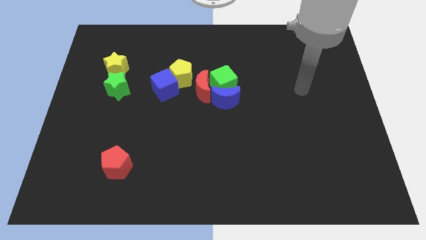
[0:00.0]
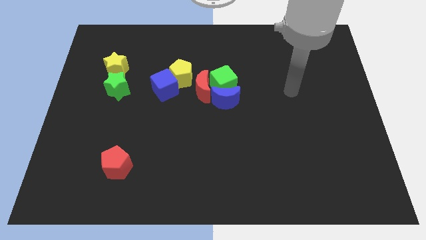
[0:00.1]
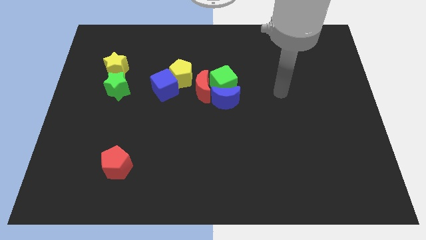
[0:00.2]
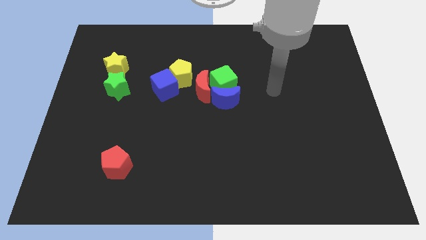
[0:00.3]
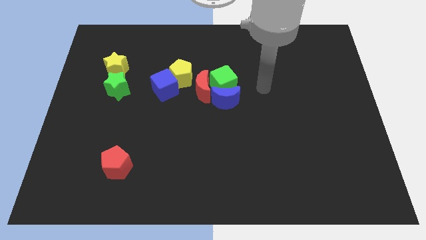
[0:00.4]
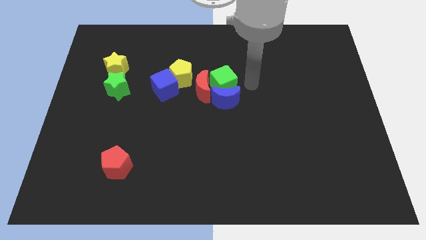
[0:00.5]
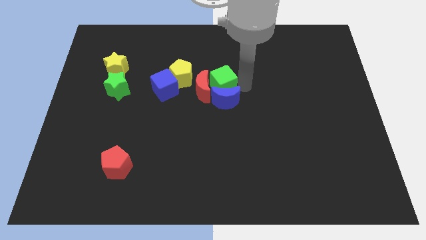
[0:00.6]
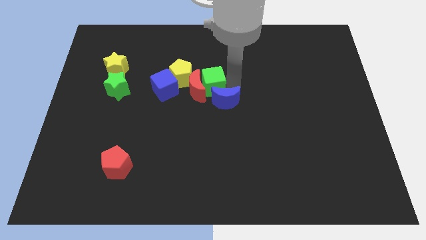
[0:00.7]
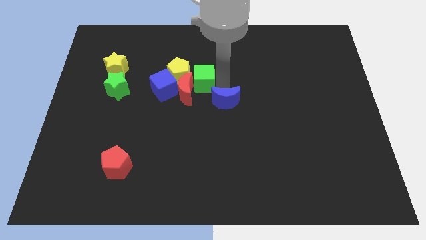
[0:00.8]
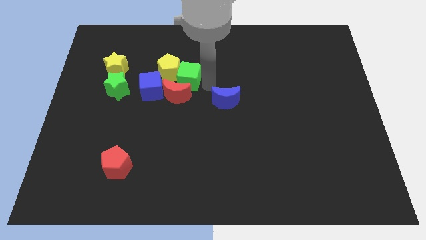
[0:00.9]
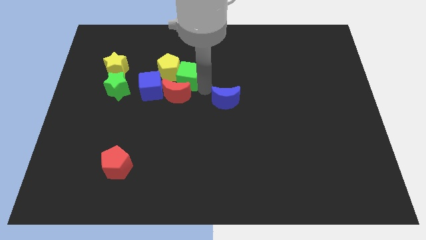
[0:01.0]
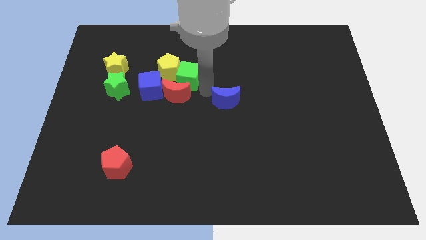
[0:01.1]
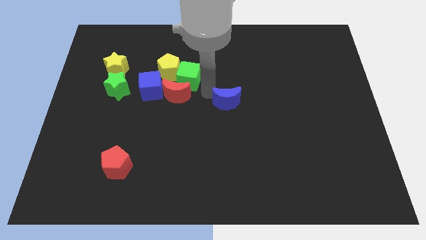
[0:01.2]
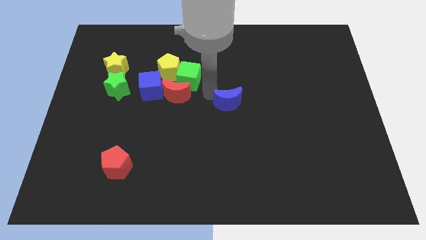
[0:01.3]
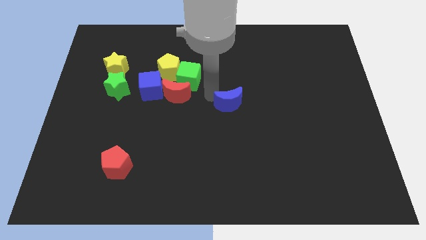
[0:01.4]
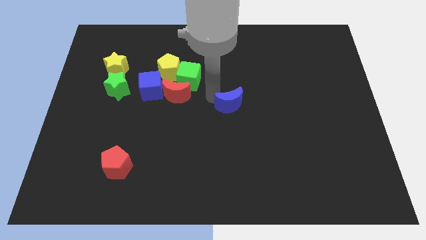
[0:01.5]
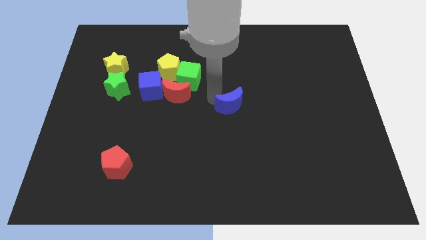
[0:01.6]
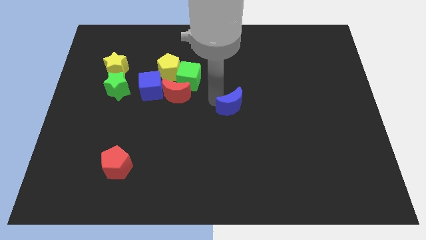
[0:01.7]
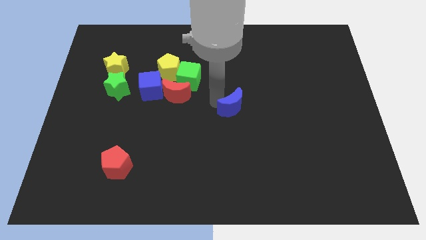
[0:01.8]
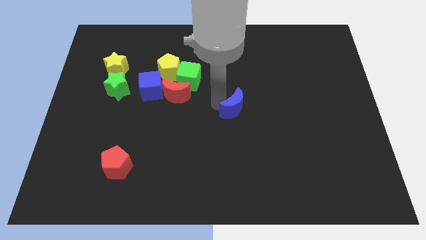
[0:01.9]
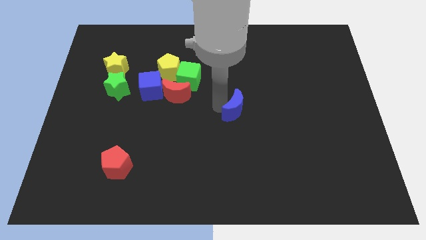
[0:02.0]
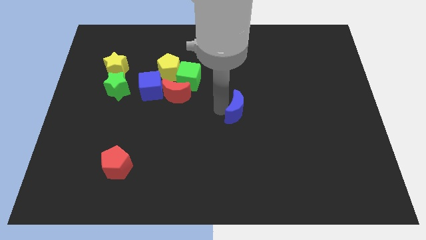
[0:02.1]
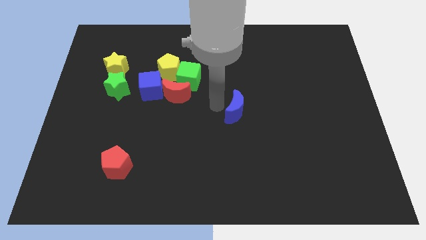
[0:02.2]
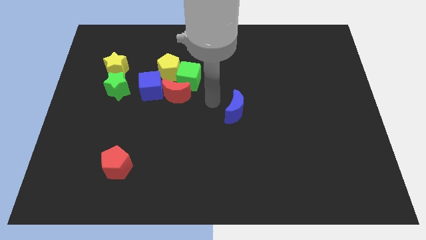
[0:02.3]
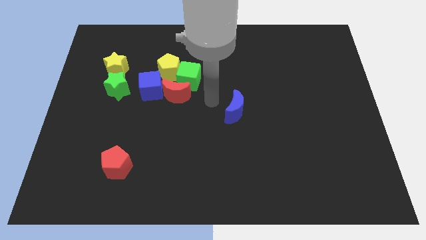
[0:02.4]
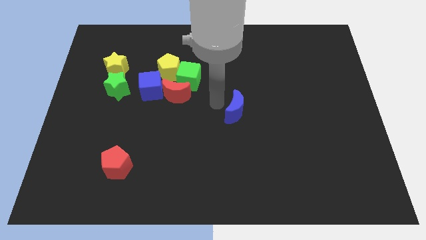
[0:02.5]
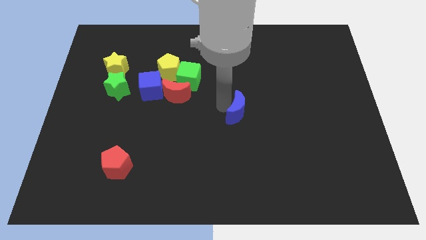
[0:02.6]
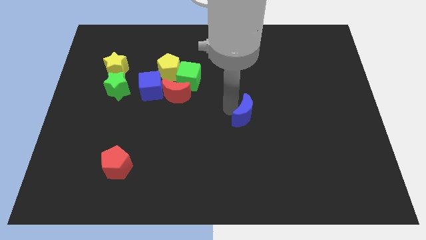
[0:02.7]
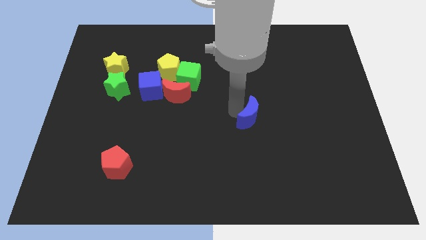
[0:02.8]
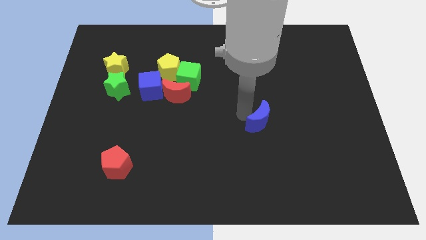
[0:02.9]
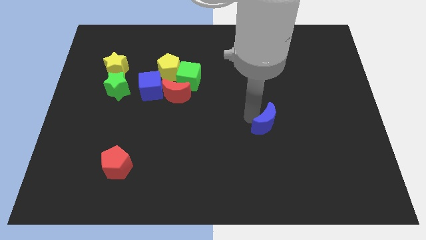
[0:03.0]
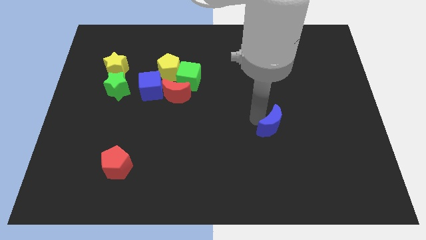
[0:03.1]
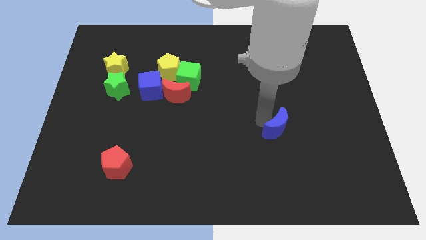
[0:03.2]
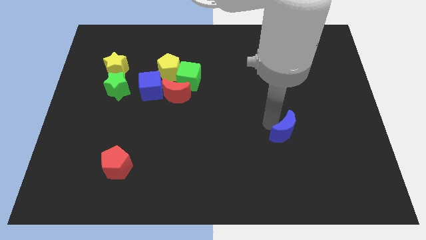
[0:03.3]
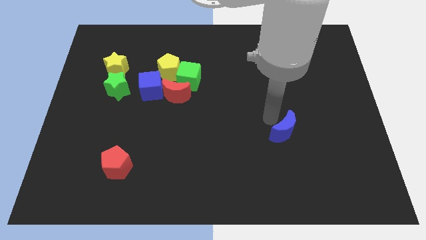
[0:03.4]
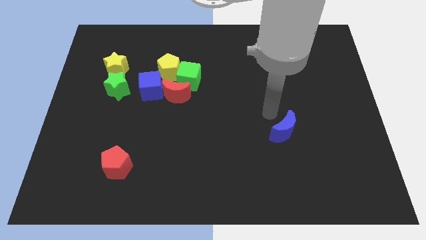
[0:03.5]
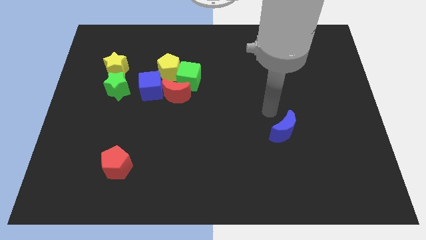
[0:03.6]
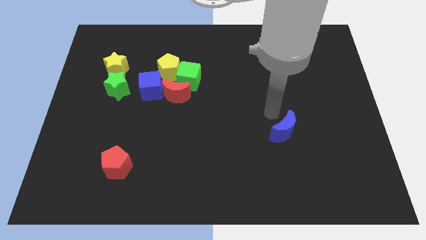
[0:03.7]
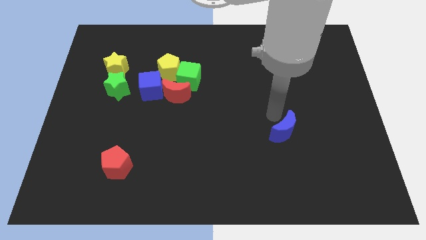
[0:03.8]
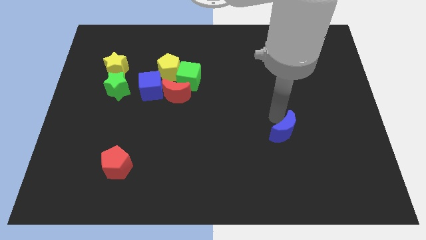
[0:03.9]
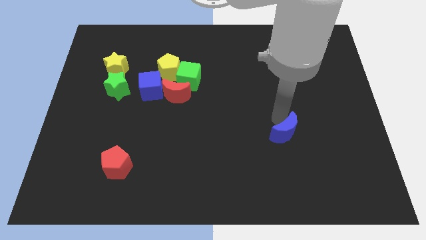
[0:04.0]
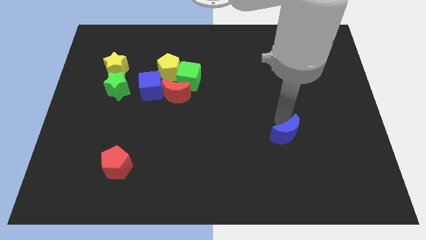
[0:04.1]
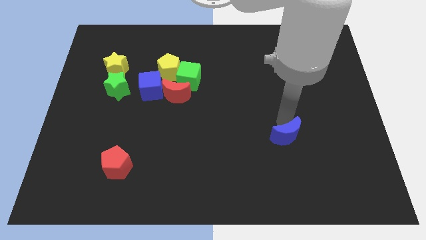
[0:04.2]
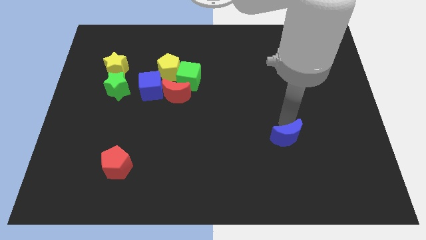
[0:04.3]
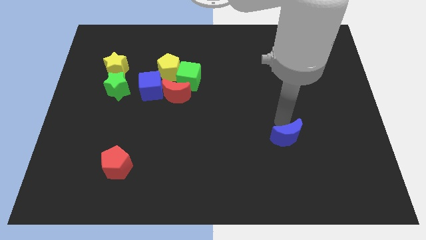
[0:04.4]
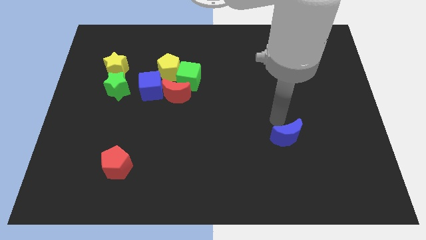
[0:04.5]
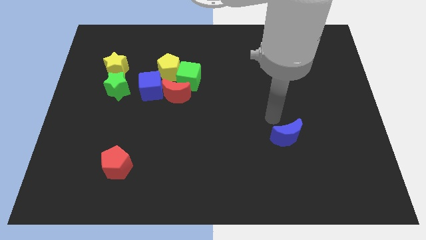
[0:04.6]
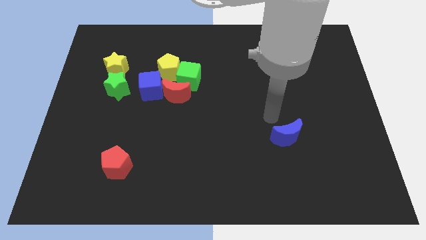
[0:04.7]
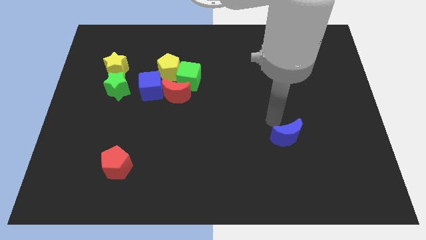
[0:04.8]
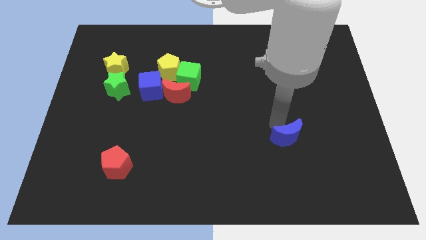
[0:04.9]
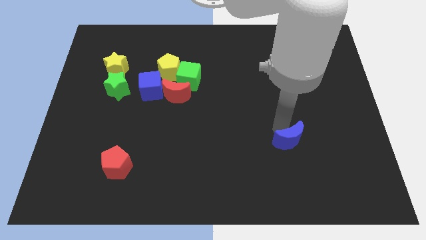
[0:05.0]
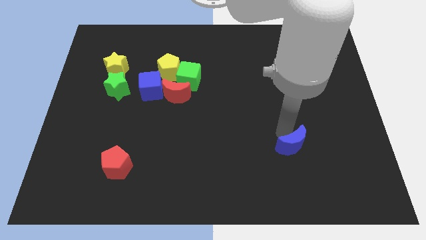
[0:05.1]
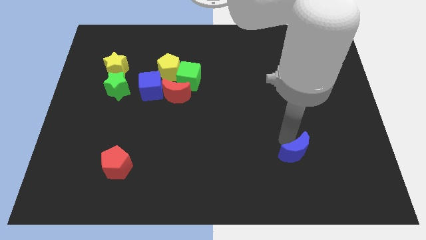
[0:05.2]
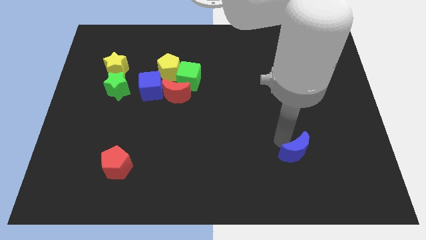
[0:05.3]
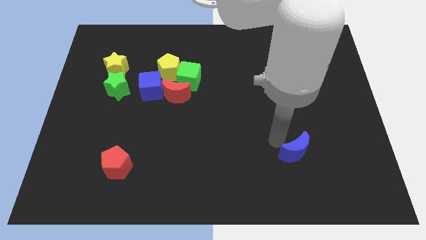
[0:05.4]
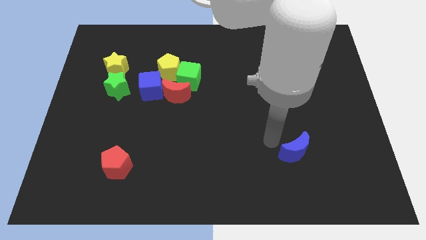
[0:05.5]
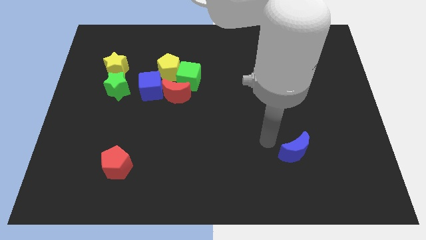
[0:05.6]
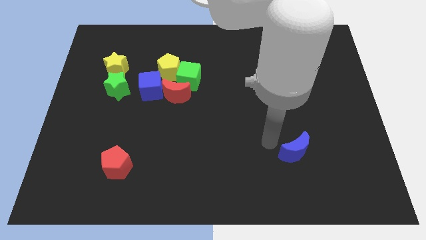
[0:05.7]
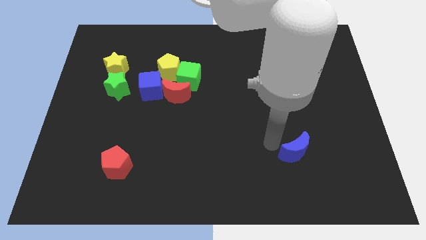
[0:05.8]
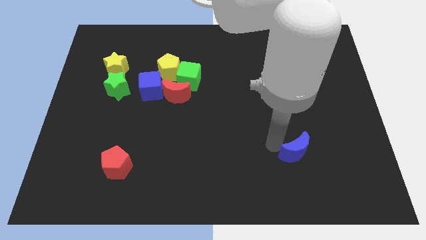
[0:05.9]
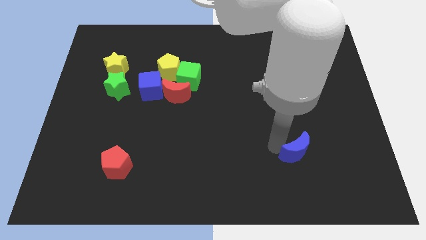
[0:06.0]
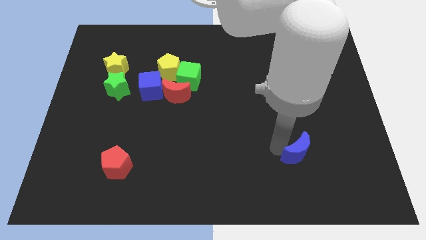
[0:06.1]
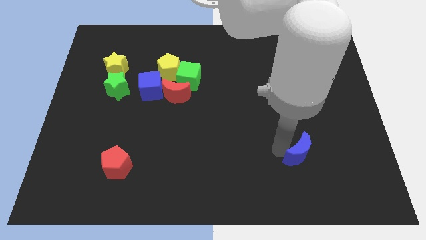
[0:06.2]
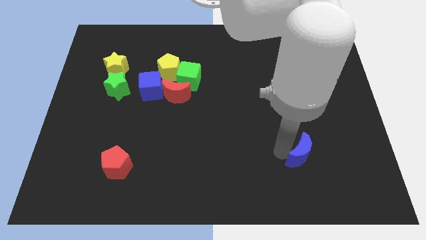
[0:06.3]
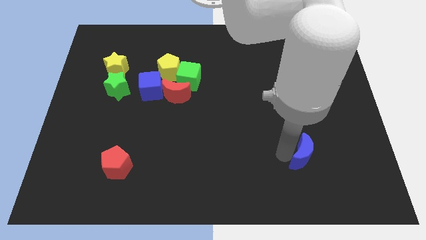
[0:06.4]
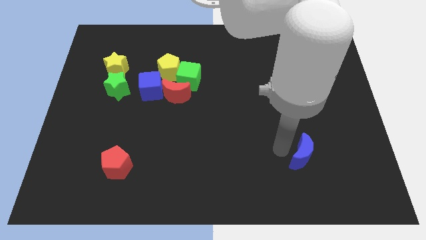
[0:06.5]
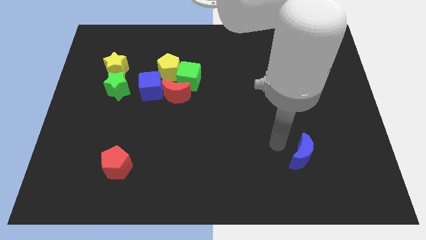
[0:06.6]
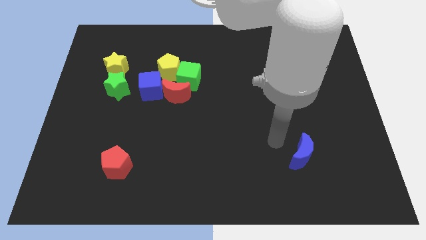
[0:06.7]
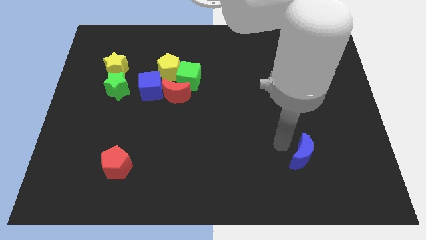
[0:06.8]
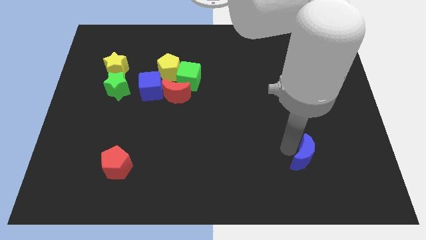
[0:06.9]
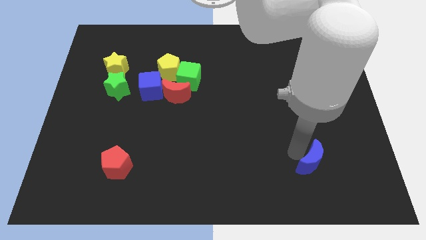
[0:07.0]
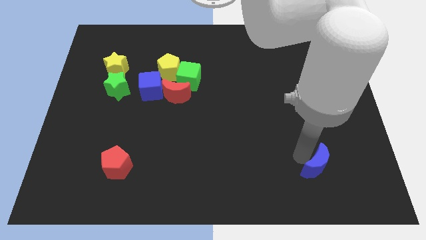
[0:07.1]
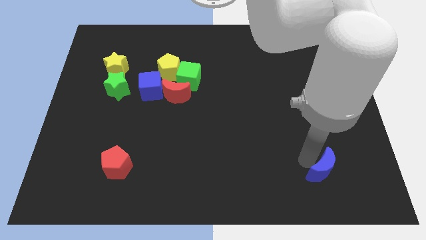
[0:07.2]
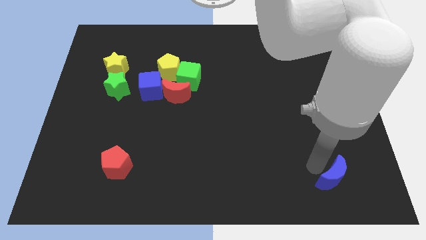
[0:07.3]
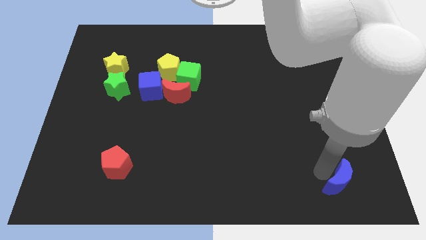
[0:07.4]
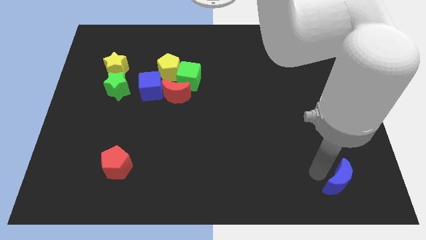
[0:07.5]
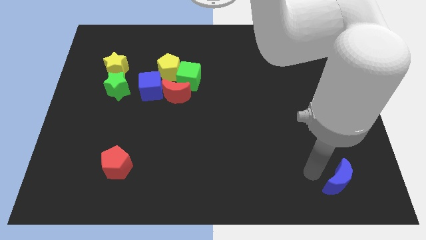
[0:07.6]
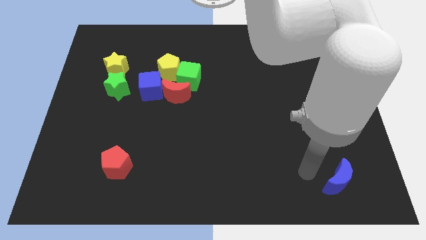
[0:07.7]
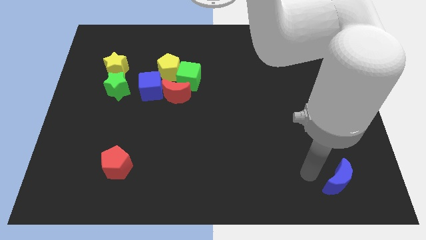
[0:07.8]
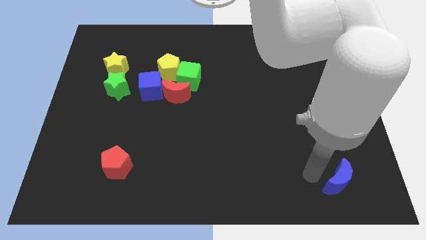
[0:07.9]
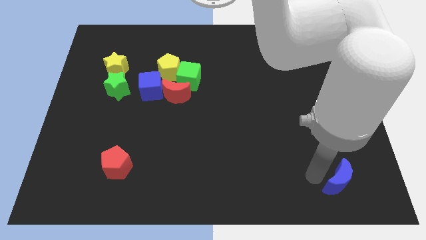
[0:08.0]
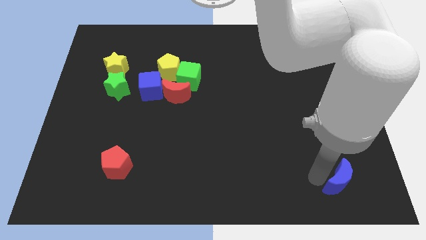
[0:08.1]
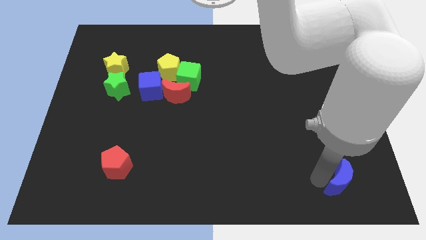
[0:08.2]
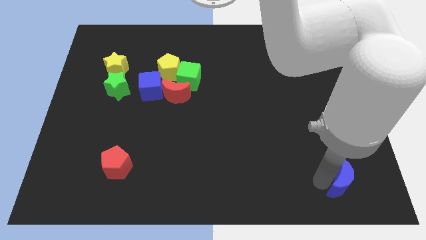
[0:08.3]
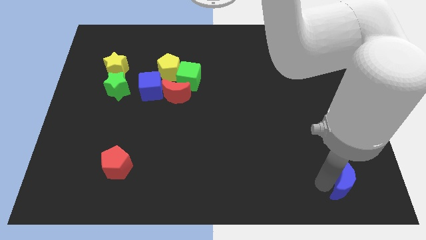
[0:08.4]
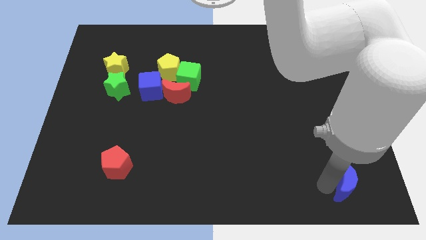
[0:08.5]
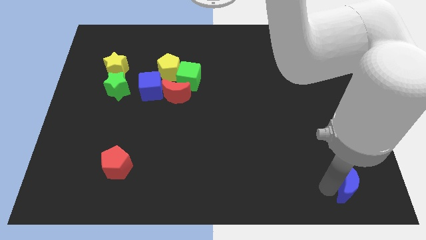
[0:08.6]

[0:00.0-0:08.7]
push the blue moon to the bottom right
